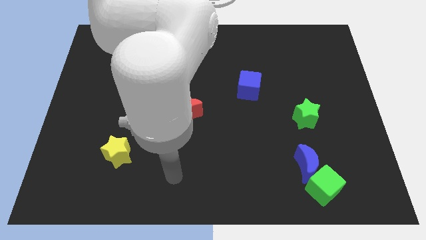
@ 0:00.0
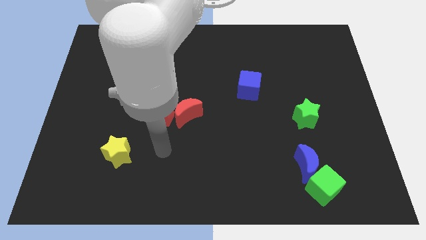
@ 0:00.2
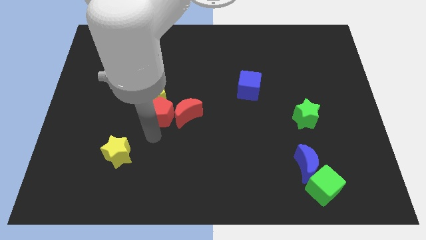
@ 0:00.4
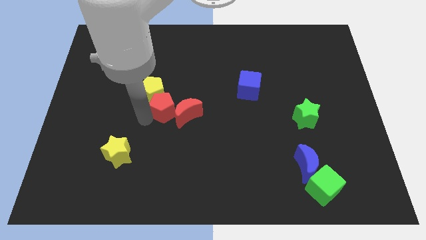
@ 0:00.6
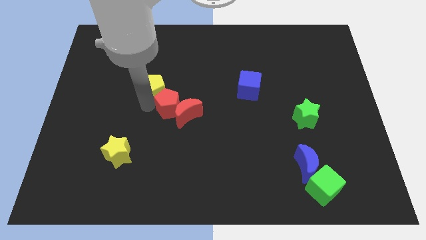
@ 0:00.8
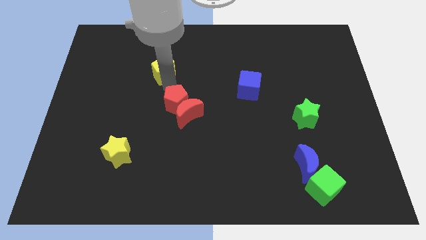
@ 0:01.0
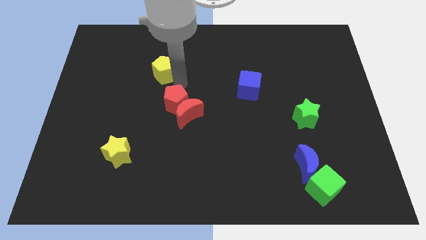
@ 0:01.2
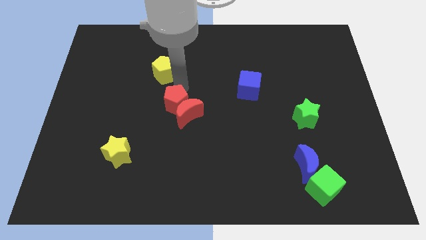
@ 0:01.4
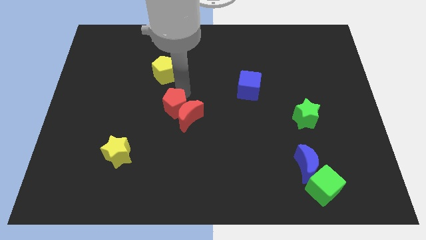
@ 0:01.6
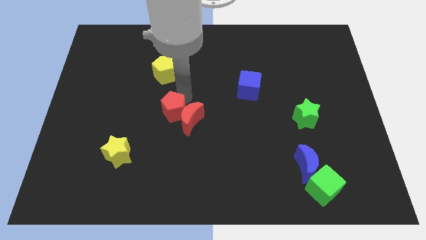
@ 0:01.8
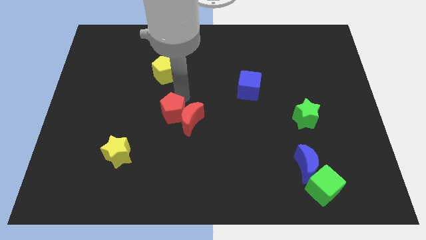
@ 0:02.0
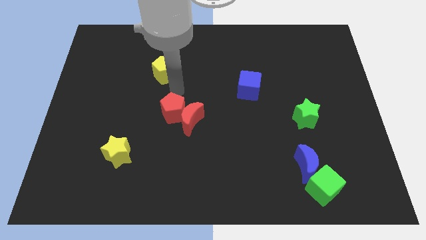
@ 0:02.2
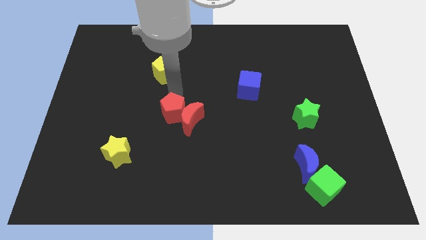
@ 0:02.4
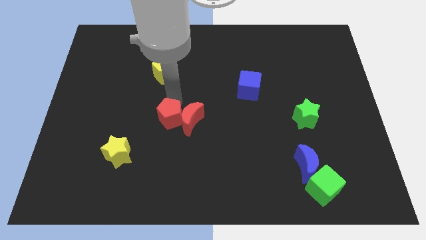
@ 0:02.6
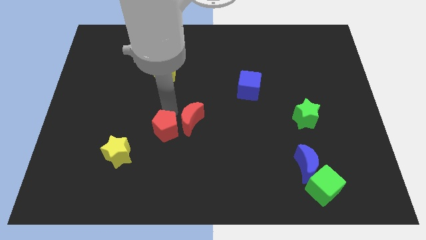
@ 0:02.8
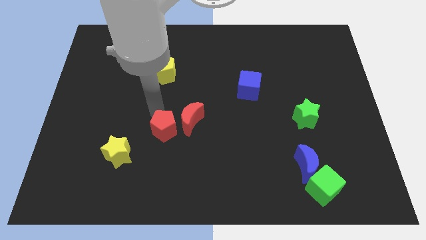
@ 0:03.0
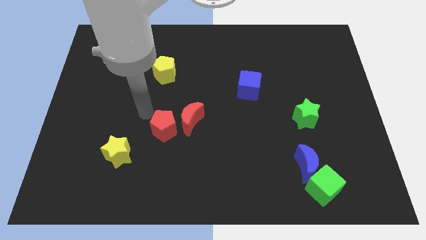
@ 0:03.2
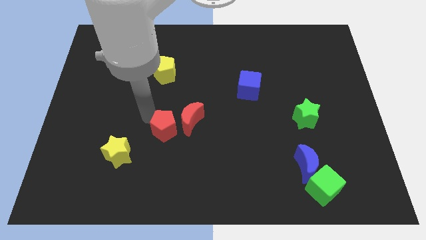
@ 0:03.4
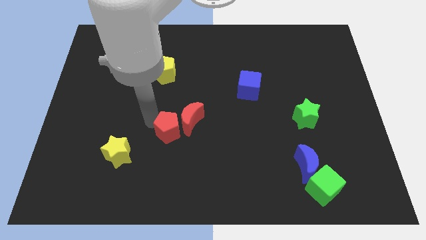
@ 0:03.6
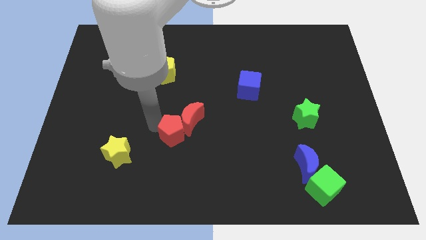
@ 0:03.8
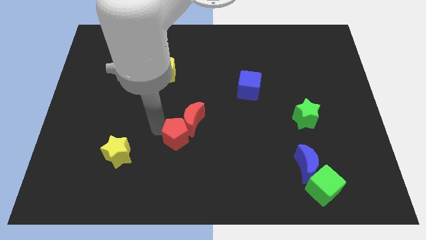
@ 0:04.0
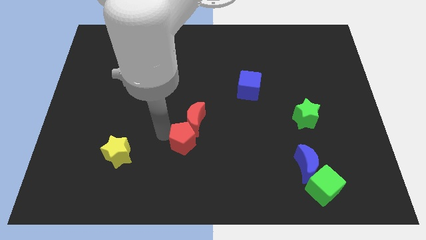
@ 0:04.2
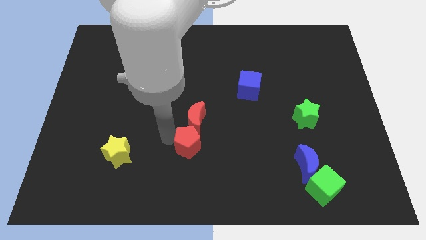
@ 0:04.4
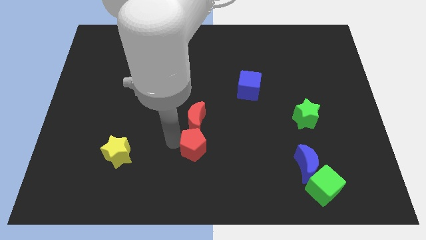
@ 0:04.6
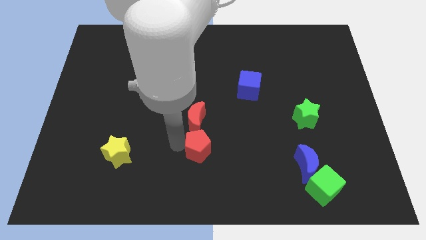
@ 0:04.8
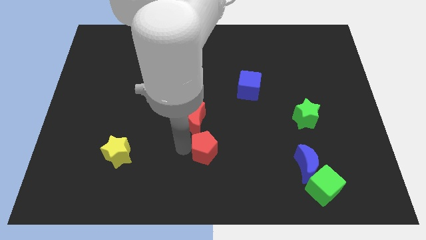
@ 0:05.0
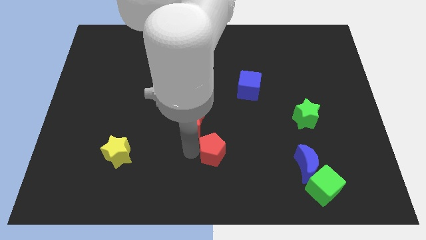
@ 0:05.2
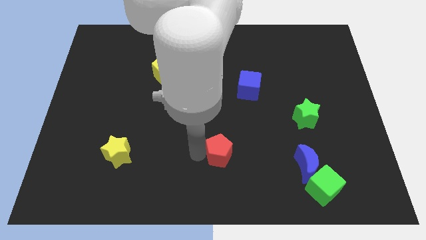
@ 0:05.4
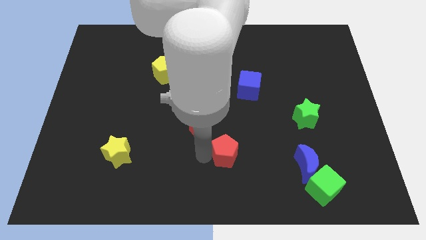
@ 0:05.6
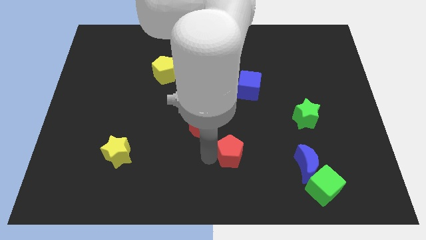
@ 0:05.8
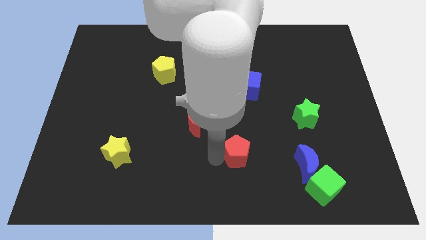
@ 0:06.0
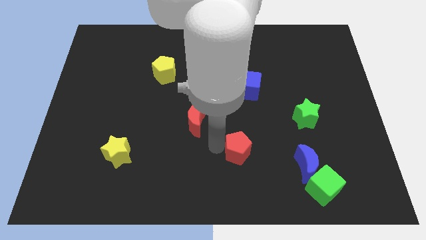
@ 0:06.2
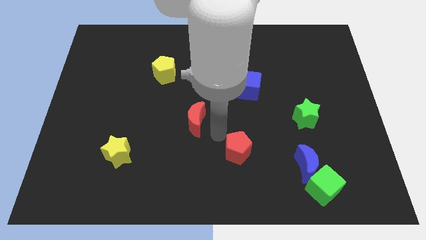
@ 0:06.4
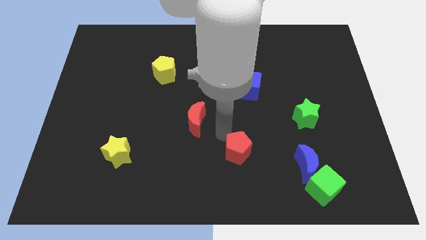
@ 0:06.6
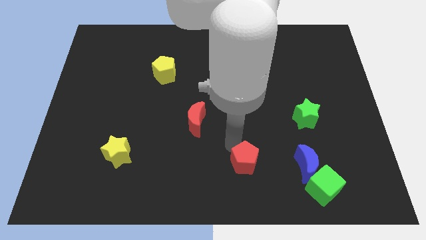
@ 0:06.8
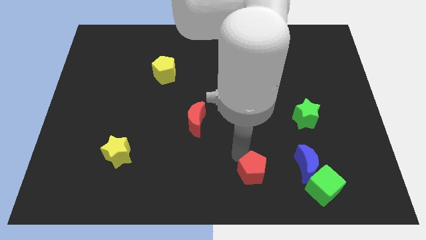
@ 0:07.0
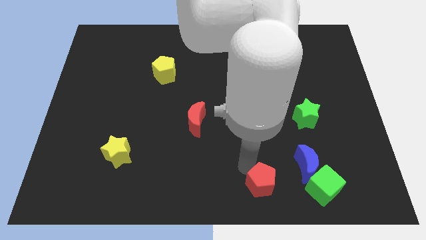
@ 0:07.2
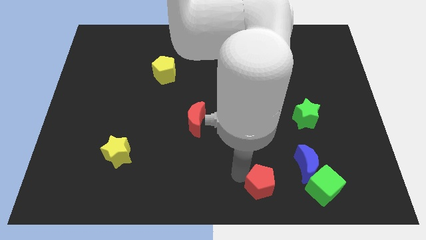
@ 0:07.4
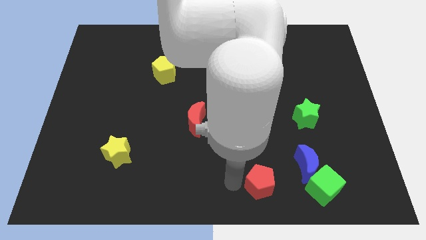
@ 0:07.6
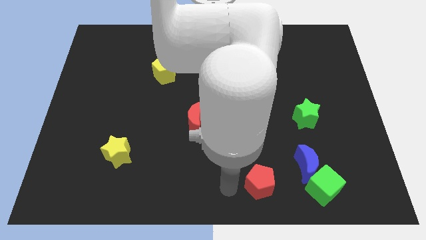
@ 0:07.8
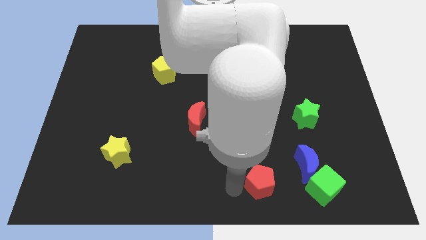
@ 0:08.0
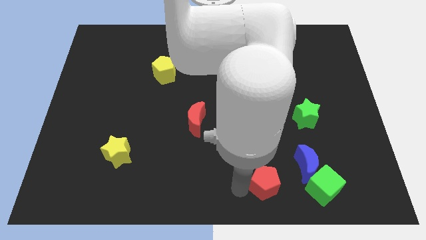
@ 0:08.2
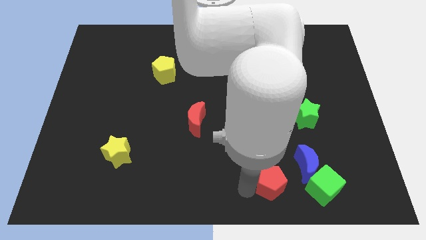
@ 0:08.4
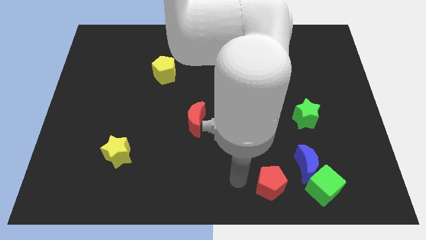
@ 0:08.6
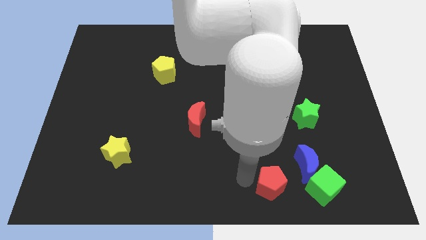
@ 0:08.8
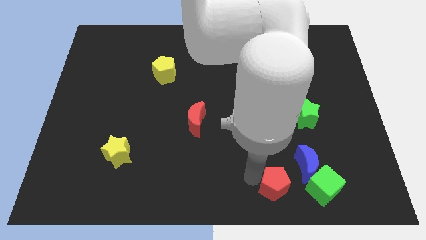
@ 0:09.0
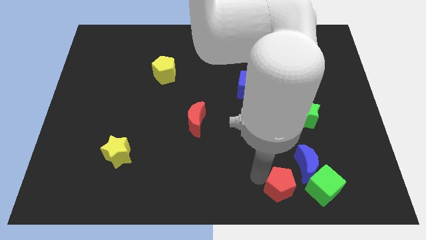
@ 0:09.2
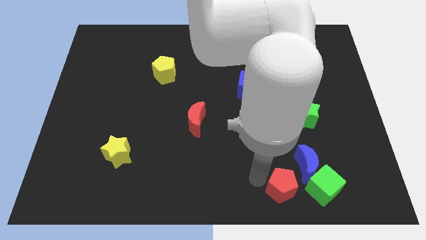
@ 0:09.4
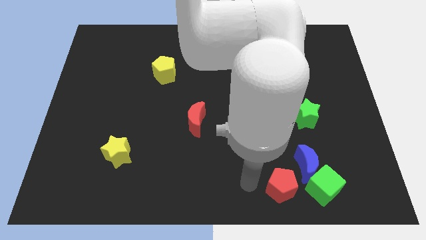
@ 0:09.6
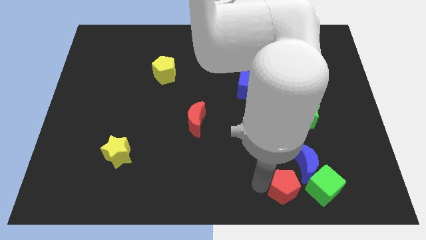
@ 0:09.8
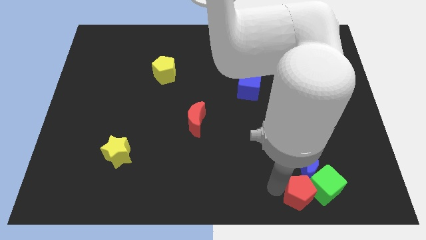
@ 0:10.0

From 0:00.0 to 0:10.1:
slide the red pentagon towards the green cube

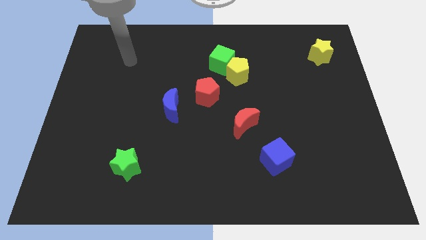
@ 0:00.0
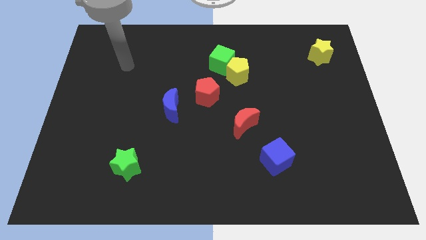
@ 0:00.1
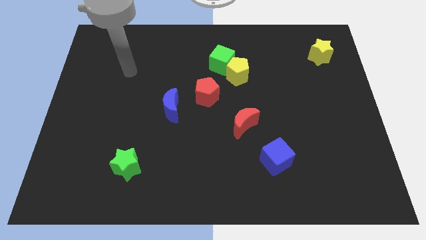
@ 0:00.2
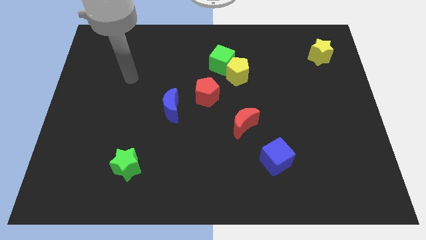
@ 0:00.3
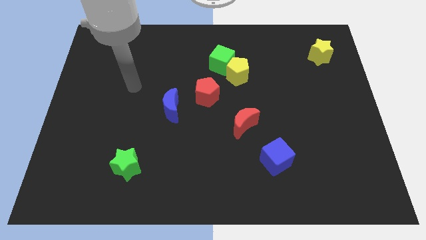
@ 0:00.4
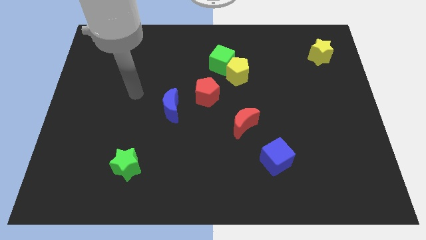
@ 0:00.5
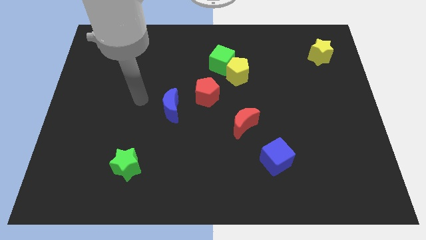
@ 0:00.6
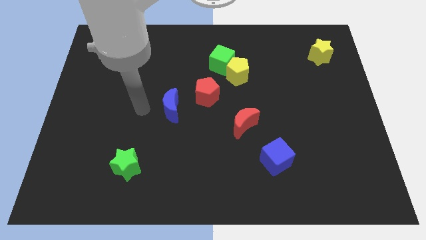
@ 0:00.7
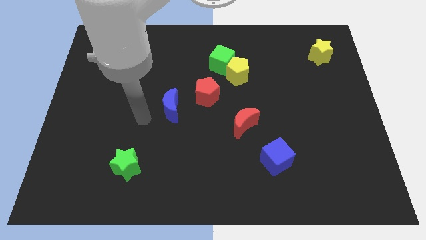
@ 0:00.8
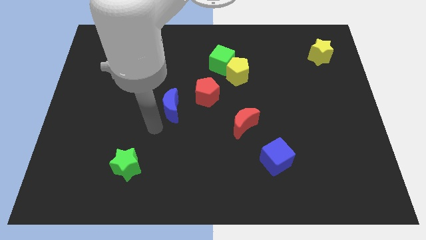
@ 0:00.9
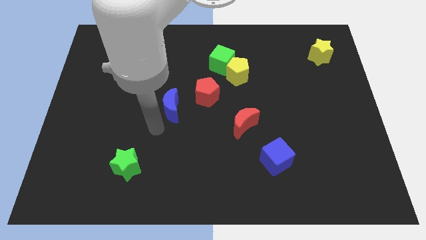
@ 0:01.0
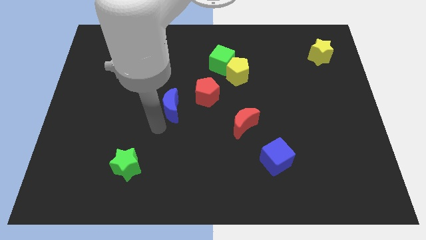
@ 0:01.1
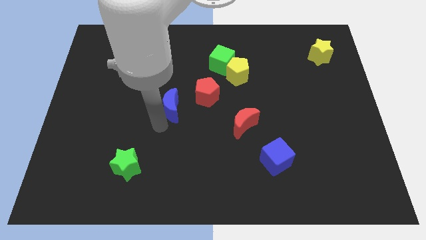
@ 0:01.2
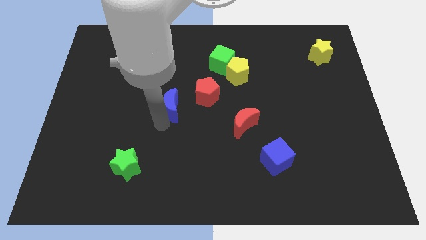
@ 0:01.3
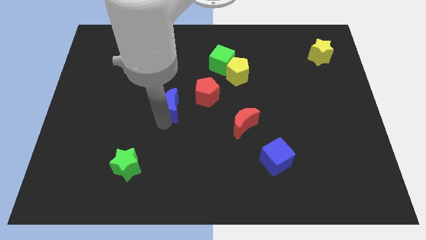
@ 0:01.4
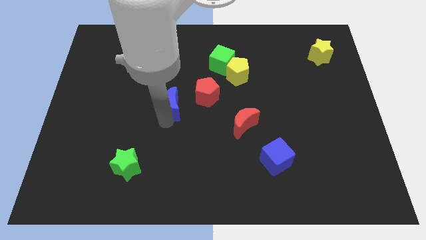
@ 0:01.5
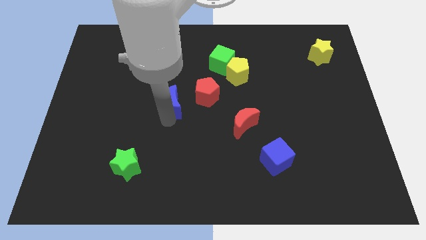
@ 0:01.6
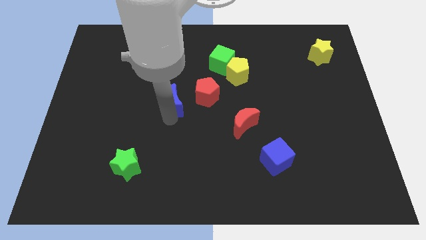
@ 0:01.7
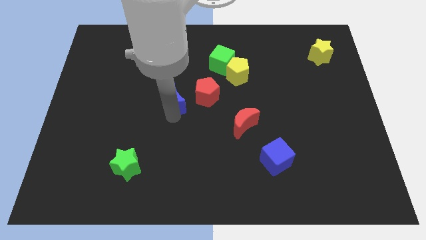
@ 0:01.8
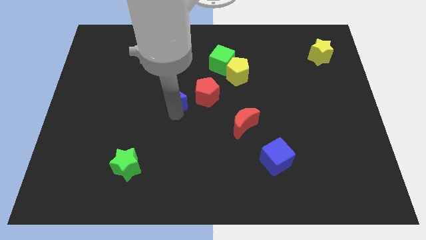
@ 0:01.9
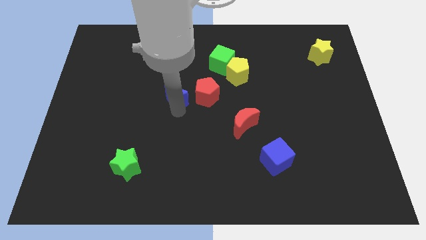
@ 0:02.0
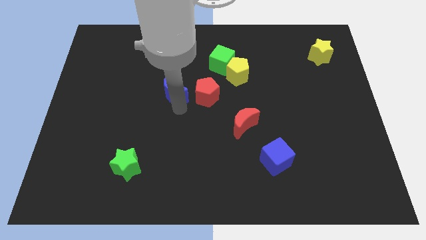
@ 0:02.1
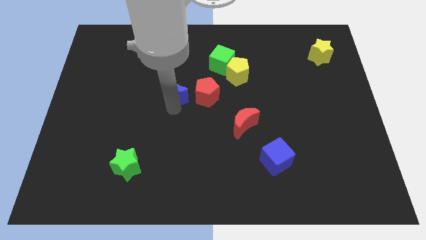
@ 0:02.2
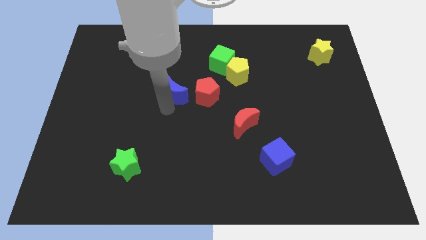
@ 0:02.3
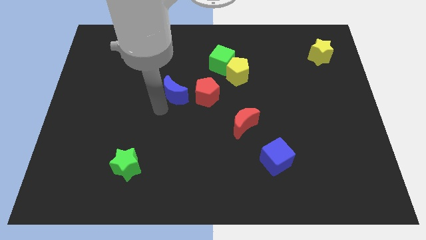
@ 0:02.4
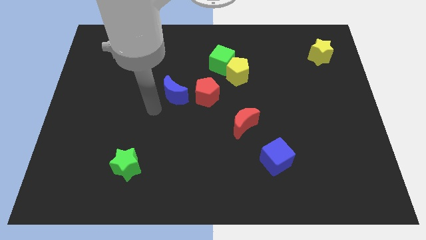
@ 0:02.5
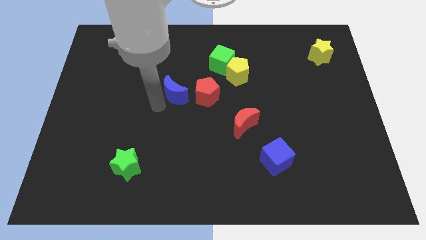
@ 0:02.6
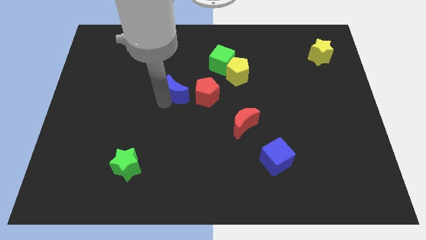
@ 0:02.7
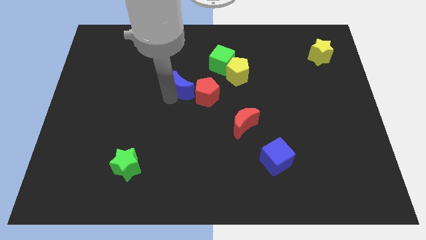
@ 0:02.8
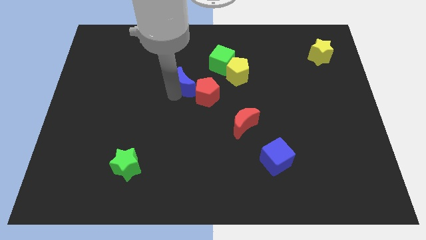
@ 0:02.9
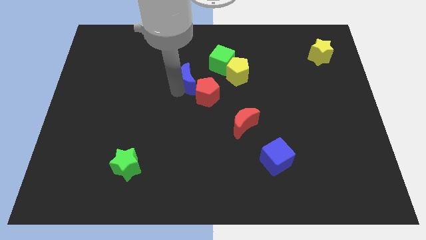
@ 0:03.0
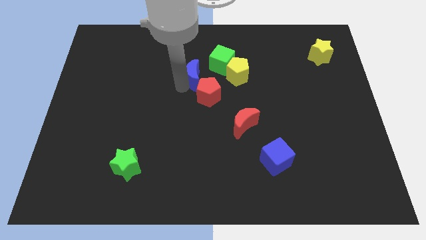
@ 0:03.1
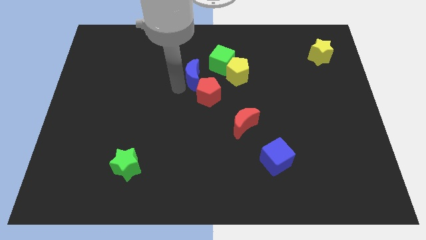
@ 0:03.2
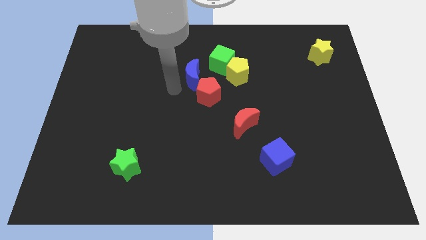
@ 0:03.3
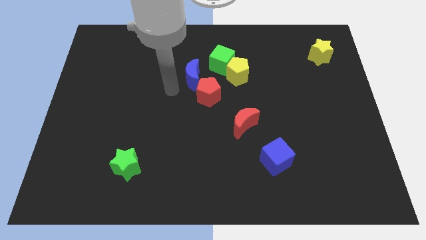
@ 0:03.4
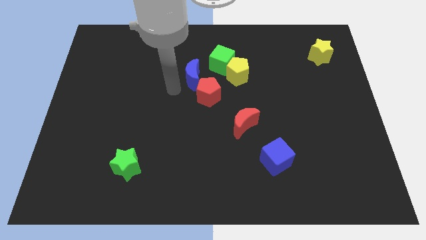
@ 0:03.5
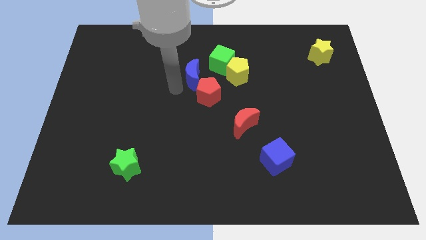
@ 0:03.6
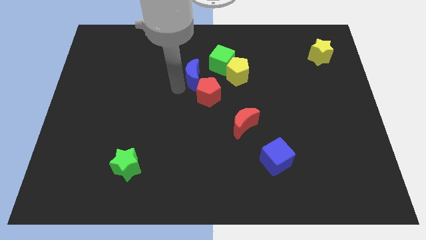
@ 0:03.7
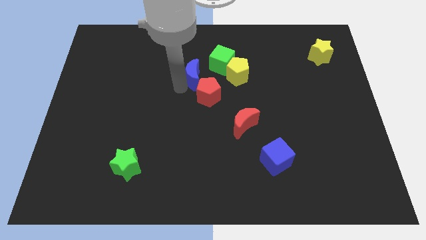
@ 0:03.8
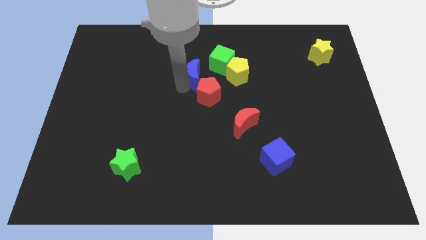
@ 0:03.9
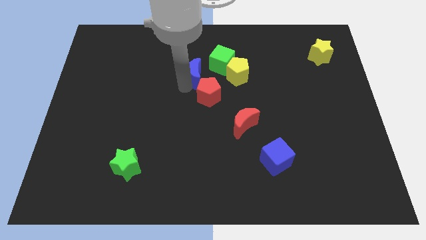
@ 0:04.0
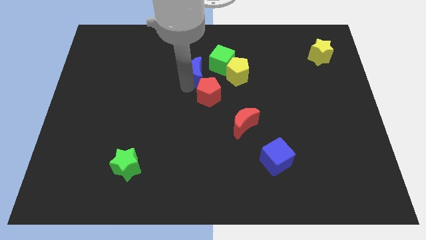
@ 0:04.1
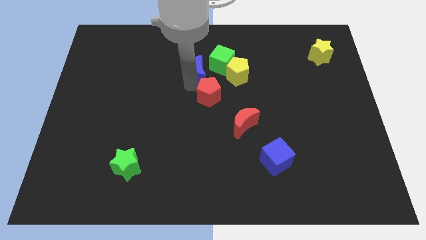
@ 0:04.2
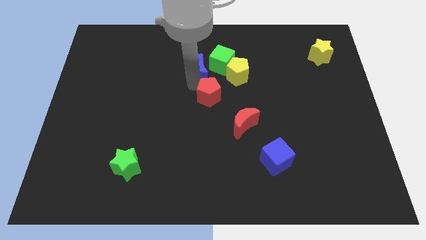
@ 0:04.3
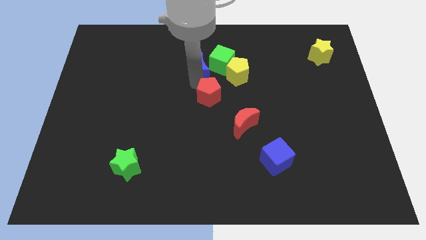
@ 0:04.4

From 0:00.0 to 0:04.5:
put the blue moon close to the green cube
